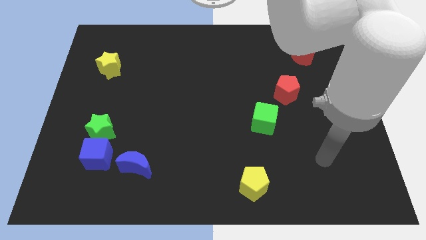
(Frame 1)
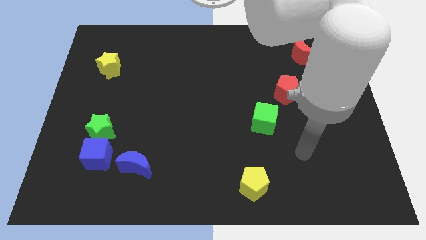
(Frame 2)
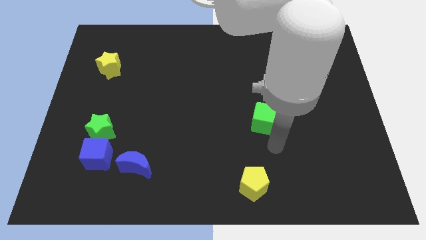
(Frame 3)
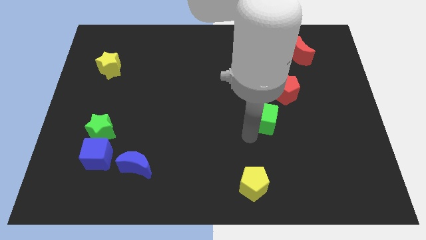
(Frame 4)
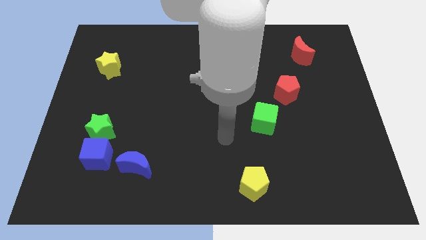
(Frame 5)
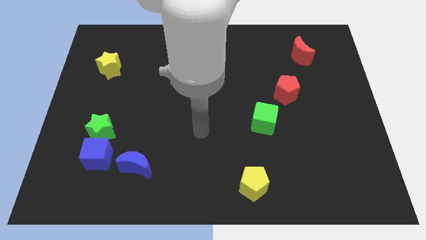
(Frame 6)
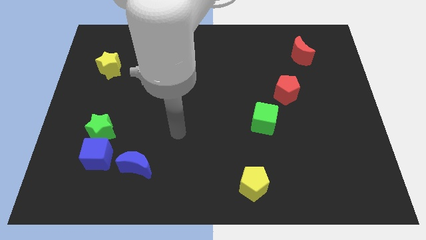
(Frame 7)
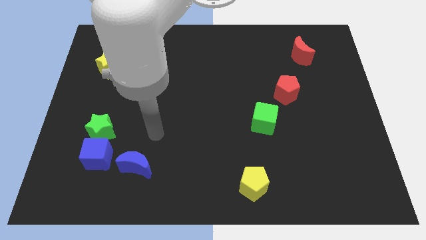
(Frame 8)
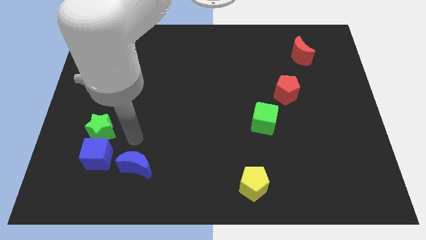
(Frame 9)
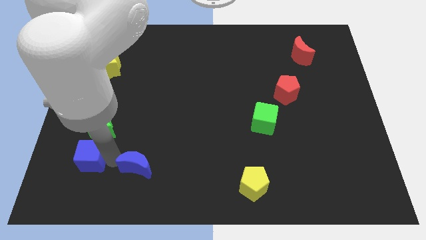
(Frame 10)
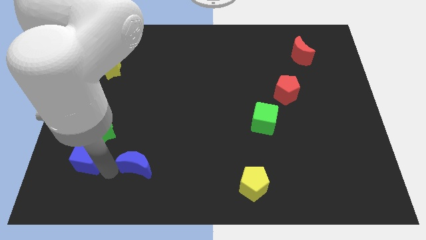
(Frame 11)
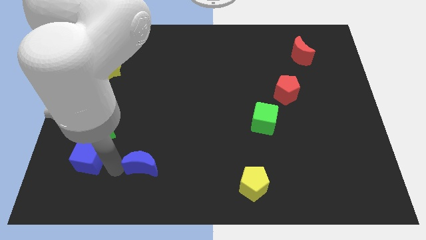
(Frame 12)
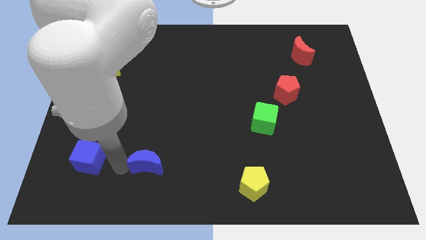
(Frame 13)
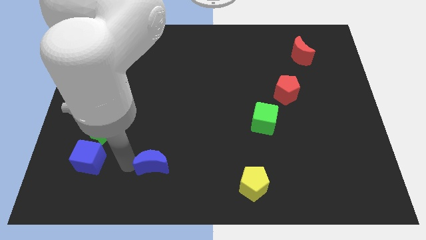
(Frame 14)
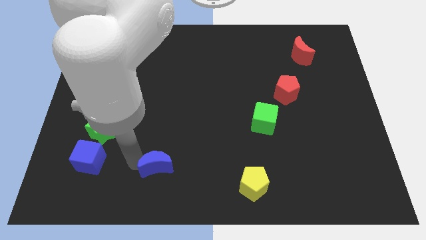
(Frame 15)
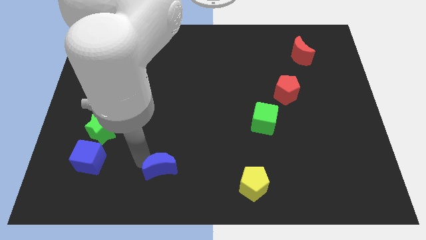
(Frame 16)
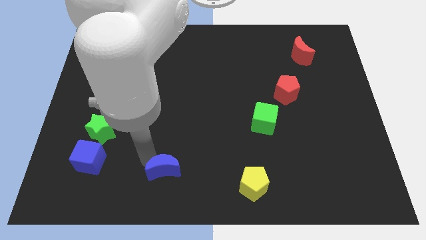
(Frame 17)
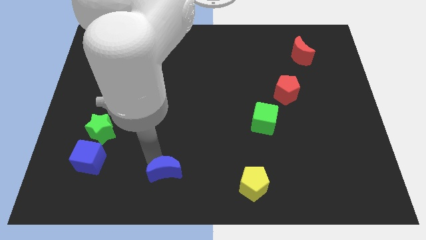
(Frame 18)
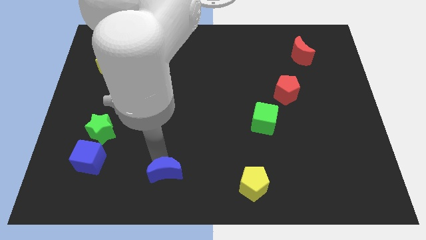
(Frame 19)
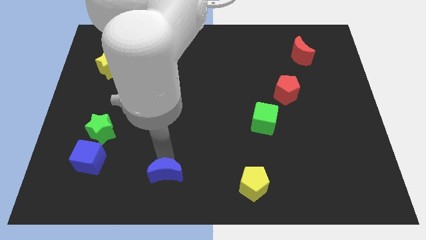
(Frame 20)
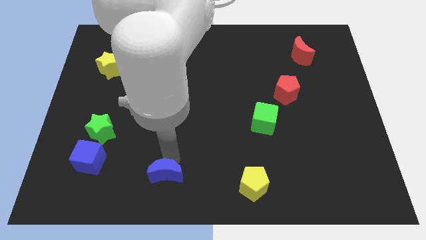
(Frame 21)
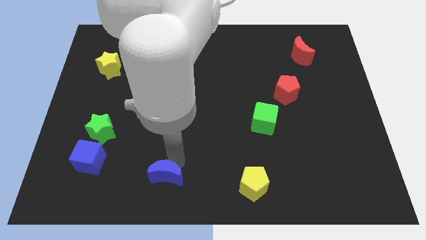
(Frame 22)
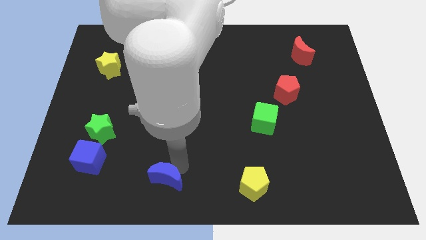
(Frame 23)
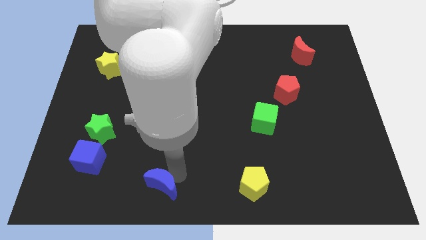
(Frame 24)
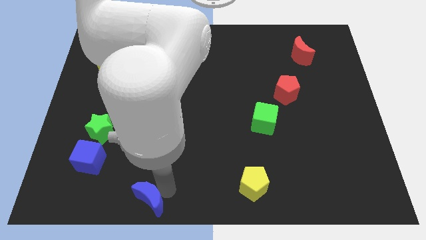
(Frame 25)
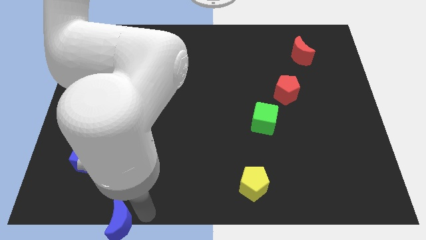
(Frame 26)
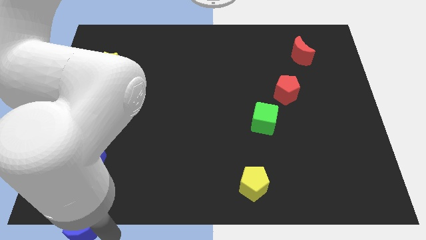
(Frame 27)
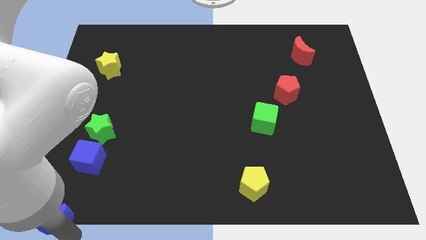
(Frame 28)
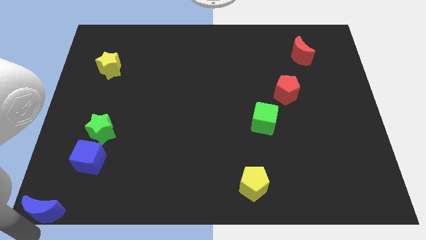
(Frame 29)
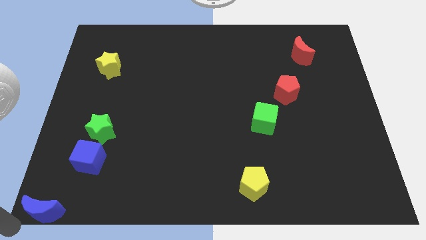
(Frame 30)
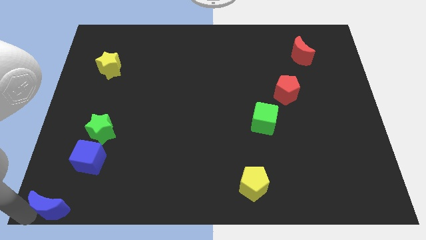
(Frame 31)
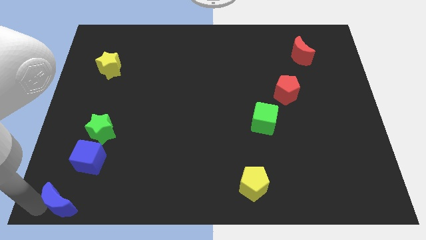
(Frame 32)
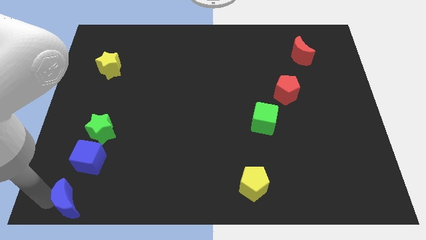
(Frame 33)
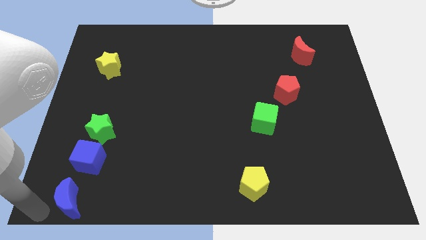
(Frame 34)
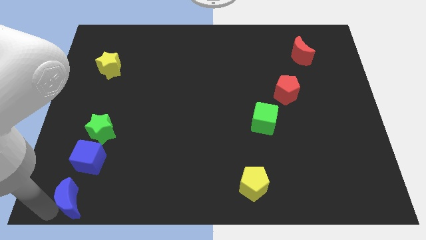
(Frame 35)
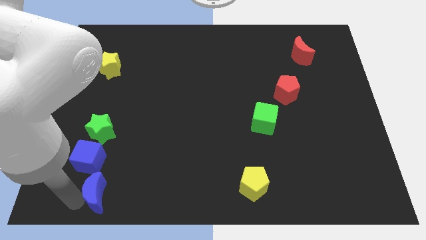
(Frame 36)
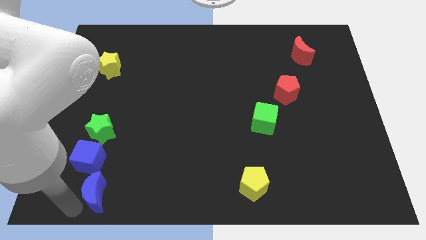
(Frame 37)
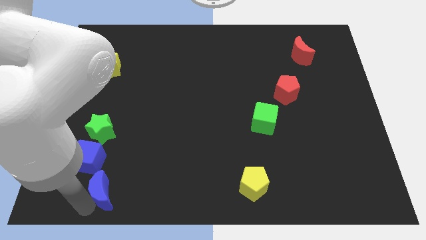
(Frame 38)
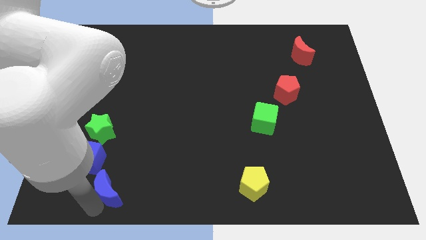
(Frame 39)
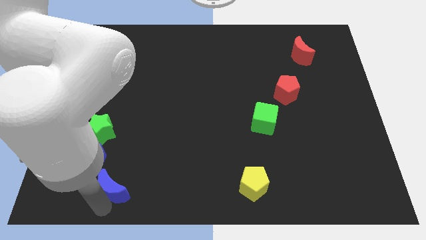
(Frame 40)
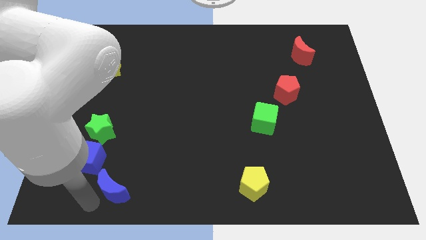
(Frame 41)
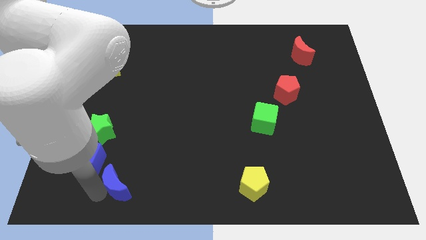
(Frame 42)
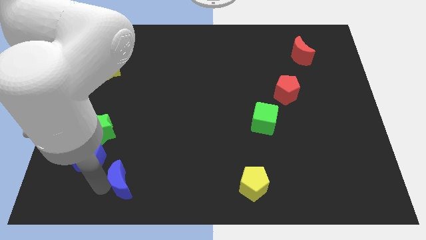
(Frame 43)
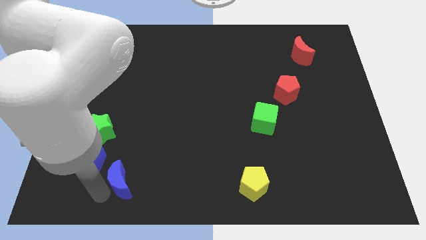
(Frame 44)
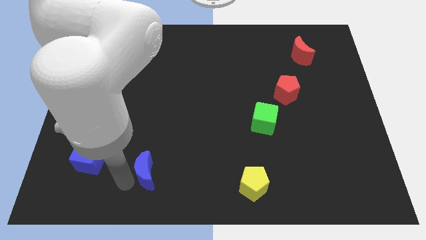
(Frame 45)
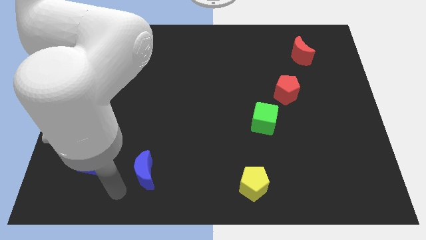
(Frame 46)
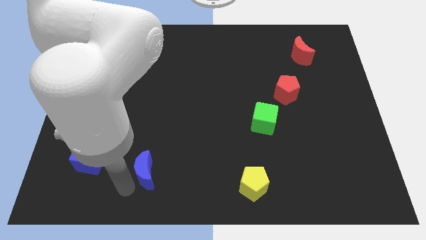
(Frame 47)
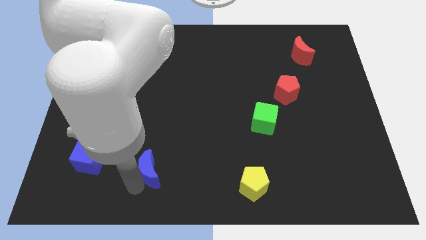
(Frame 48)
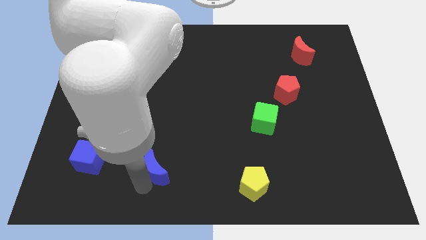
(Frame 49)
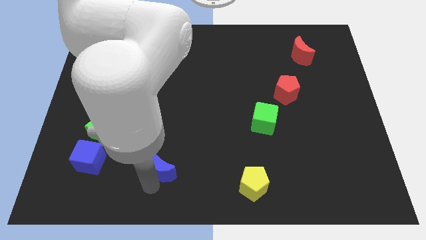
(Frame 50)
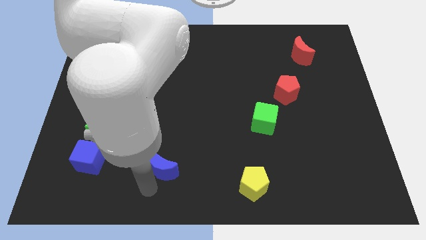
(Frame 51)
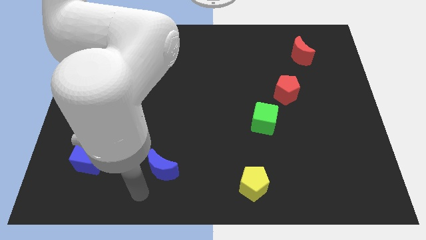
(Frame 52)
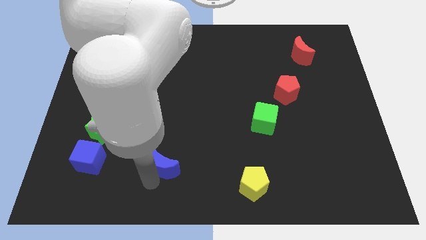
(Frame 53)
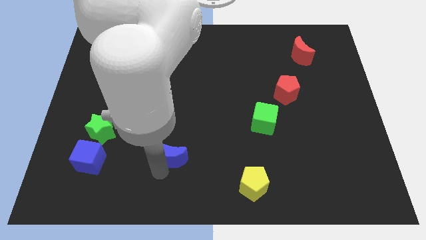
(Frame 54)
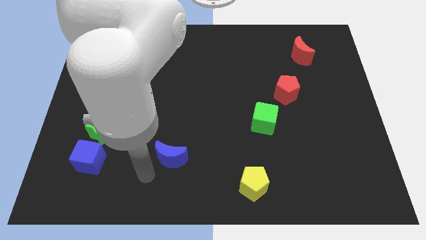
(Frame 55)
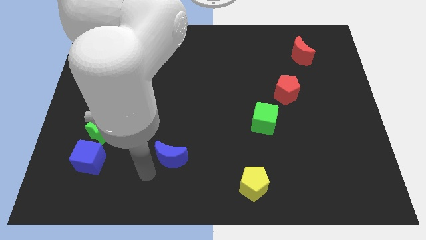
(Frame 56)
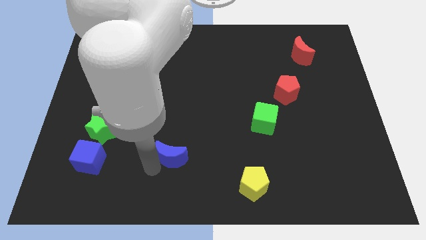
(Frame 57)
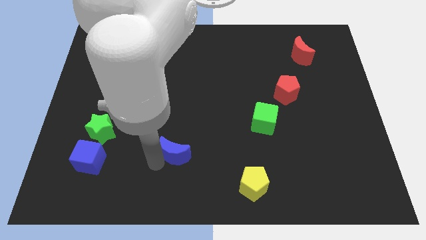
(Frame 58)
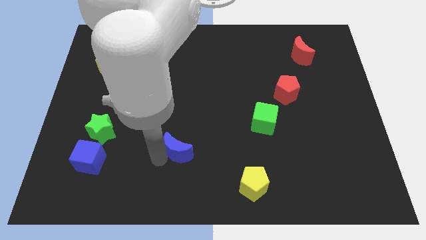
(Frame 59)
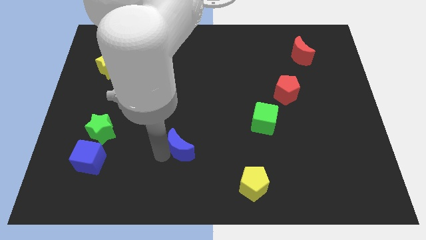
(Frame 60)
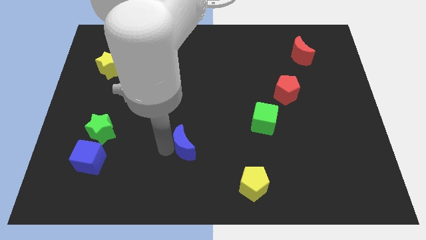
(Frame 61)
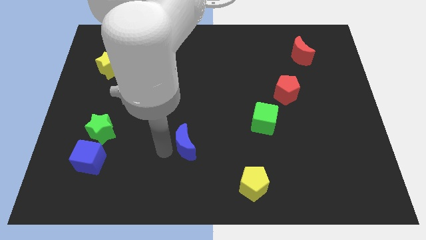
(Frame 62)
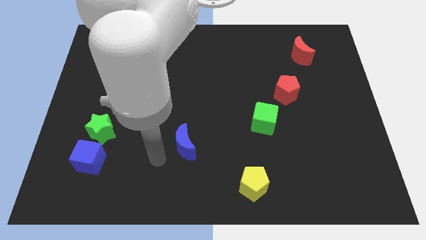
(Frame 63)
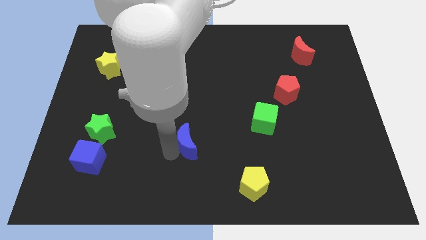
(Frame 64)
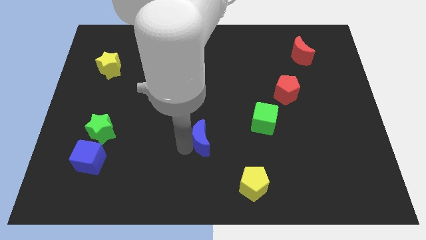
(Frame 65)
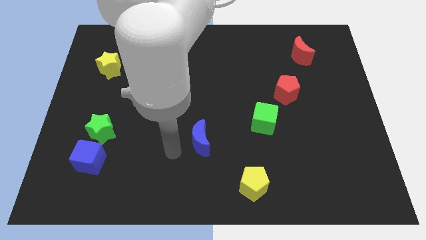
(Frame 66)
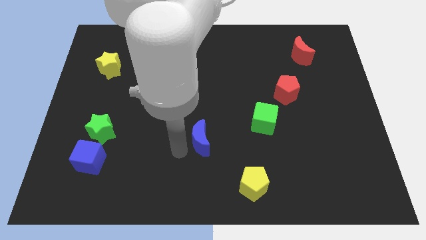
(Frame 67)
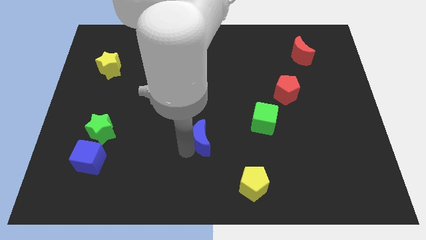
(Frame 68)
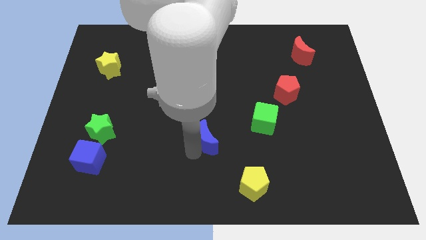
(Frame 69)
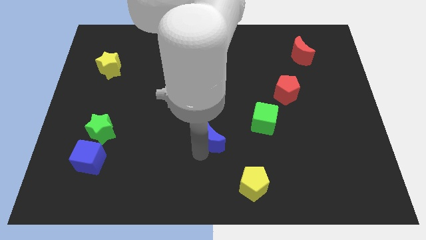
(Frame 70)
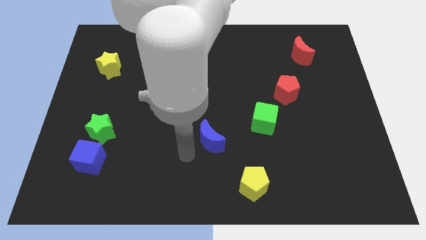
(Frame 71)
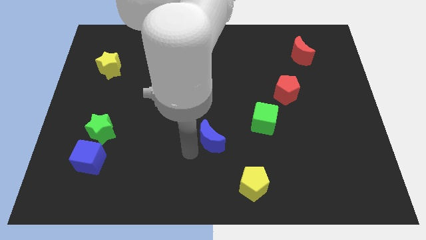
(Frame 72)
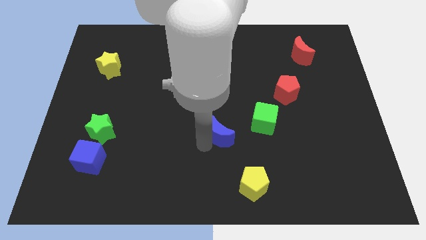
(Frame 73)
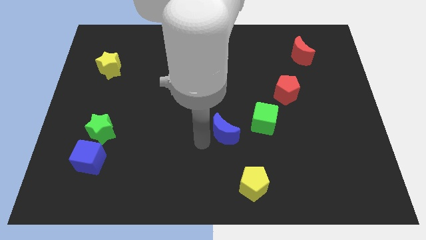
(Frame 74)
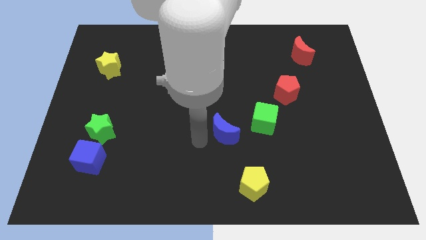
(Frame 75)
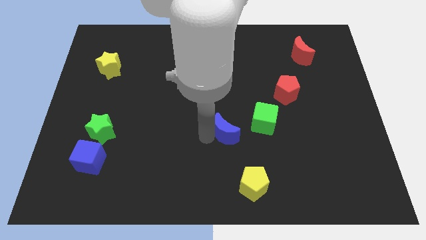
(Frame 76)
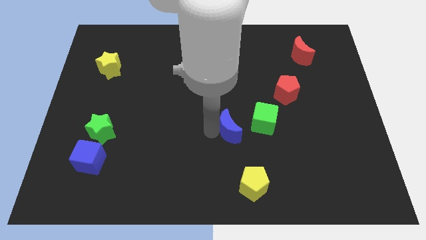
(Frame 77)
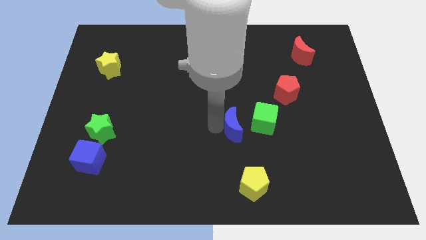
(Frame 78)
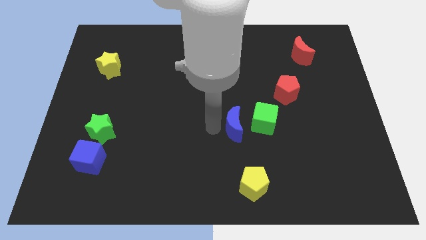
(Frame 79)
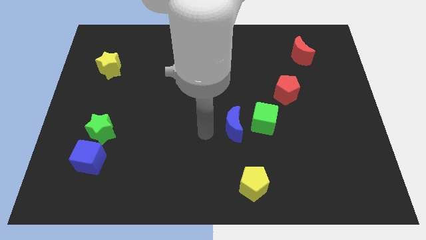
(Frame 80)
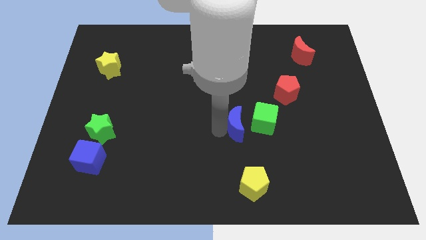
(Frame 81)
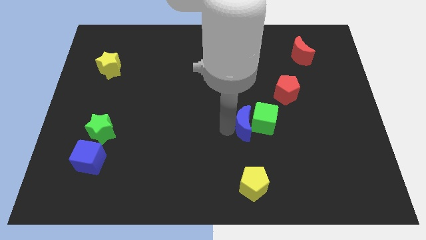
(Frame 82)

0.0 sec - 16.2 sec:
slide the blue moon next to the green cube
